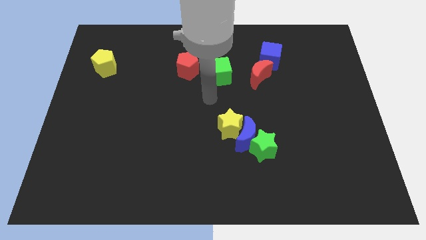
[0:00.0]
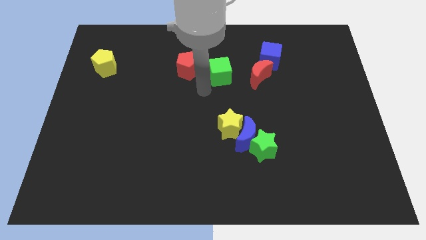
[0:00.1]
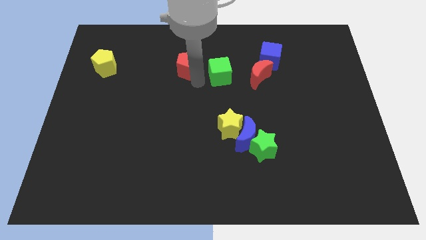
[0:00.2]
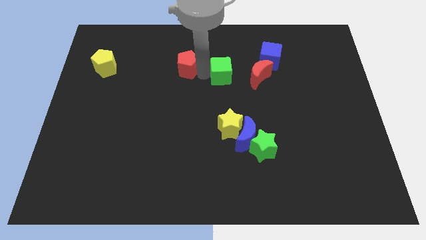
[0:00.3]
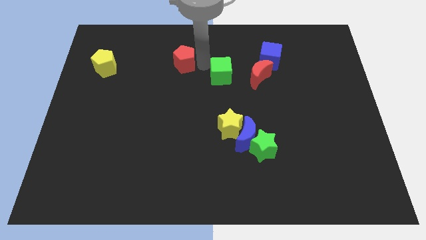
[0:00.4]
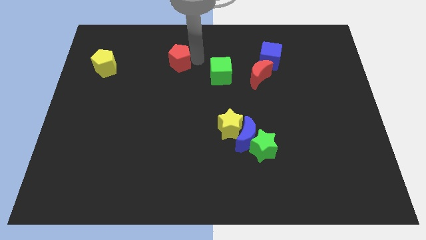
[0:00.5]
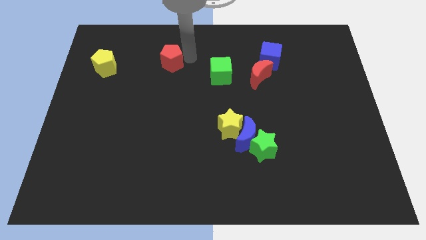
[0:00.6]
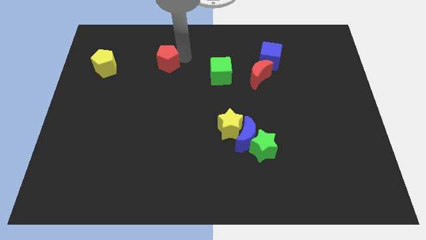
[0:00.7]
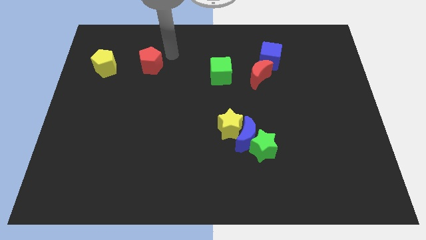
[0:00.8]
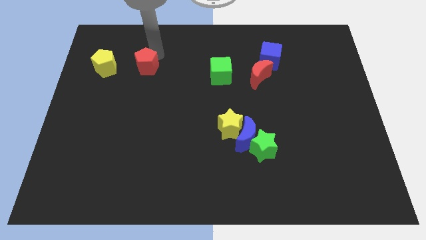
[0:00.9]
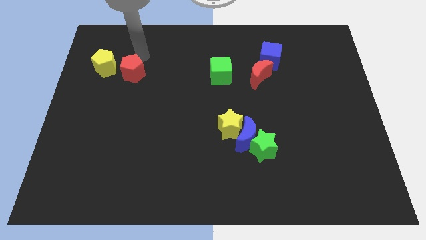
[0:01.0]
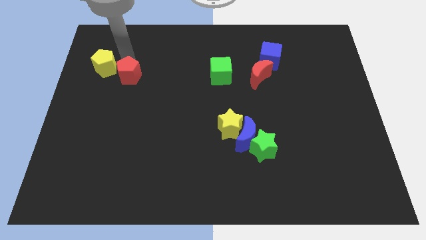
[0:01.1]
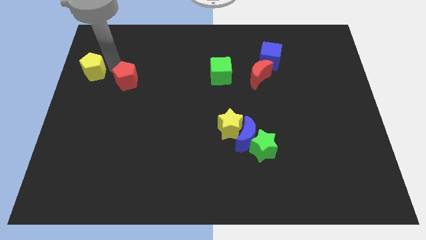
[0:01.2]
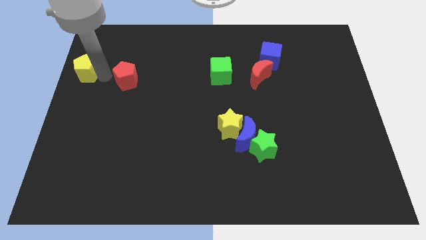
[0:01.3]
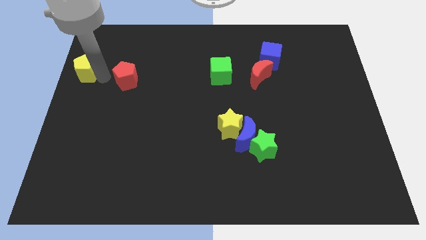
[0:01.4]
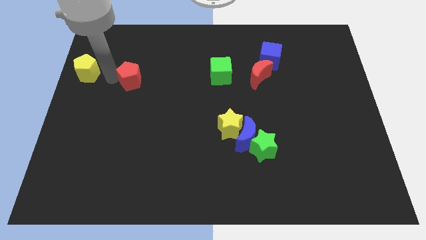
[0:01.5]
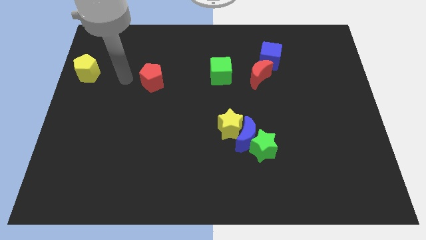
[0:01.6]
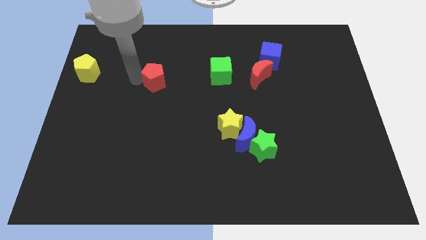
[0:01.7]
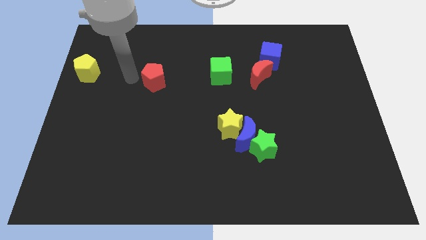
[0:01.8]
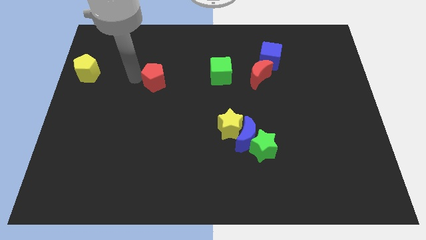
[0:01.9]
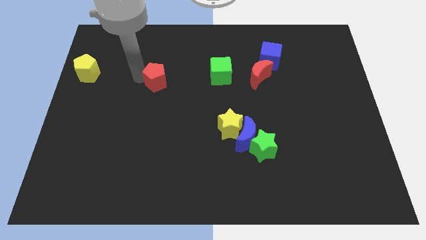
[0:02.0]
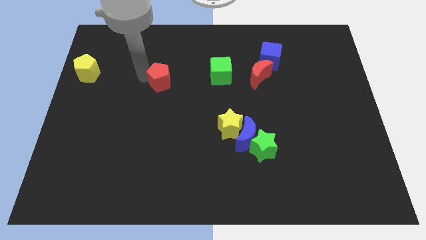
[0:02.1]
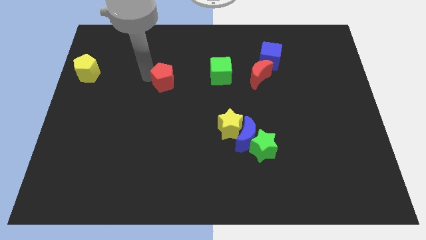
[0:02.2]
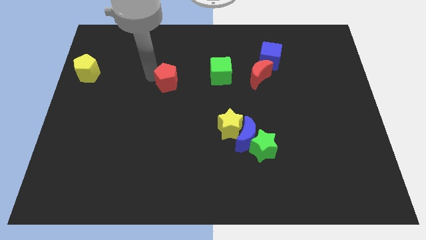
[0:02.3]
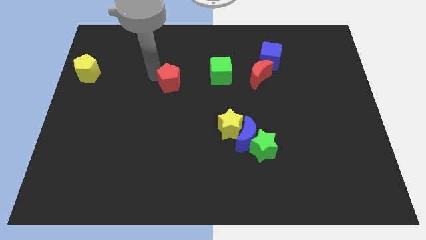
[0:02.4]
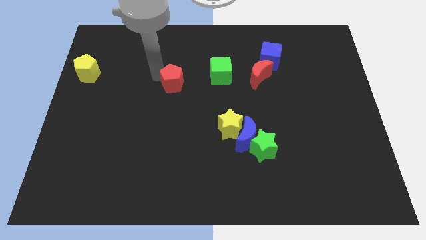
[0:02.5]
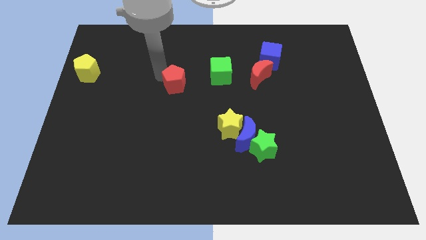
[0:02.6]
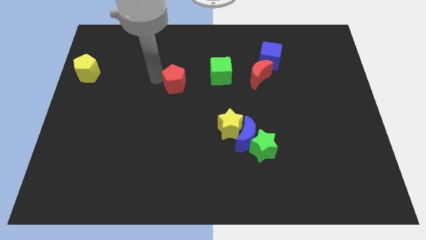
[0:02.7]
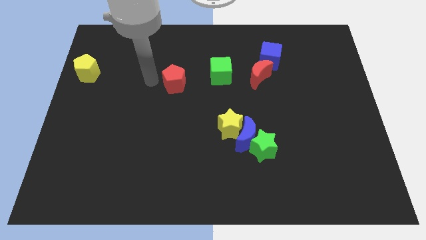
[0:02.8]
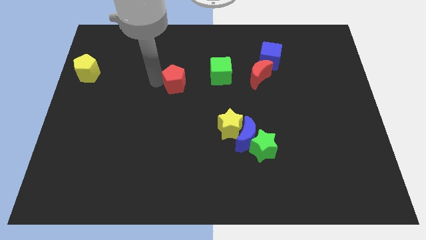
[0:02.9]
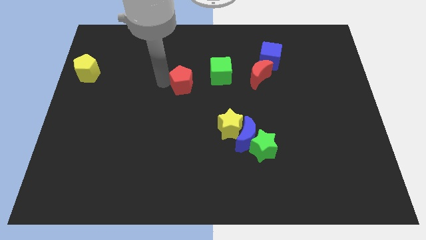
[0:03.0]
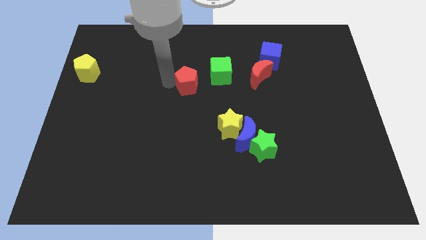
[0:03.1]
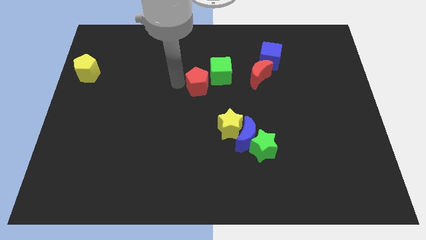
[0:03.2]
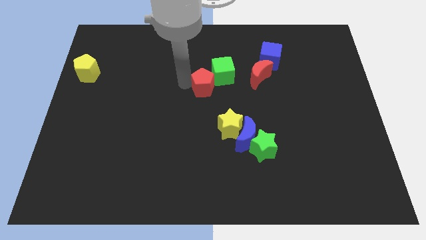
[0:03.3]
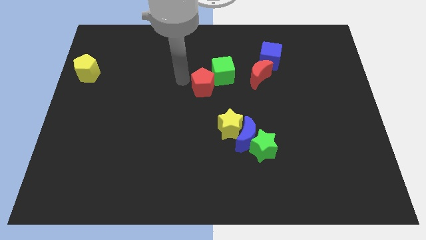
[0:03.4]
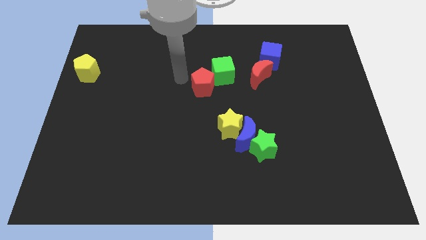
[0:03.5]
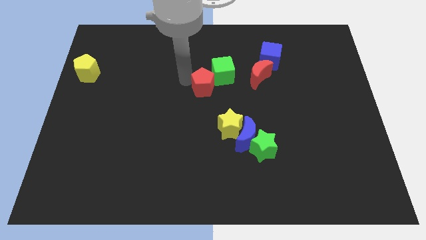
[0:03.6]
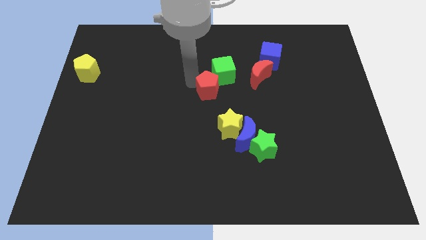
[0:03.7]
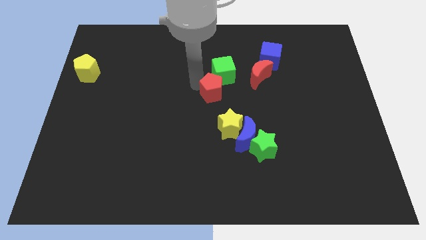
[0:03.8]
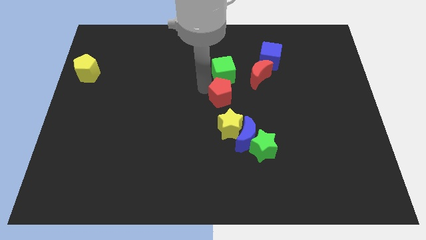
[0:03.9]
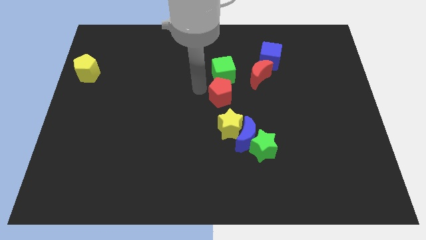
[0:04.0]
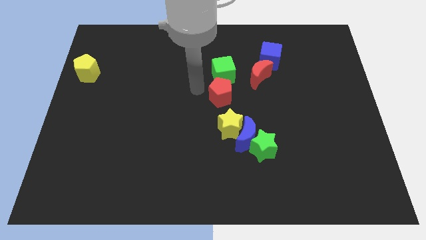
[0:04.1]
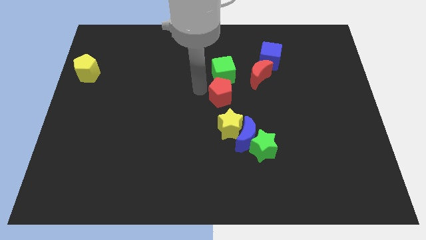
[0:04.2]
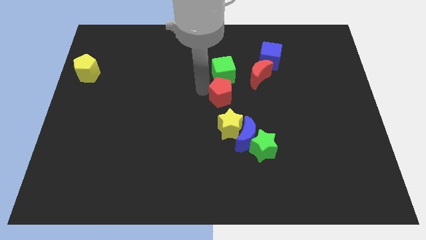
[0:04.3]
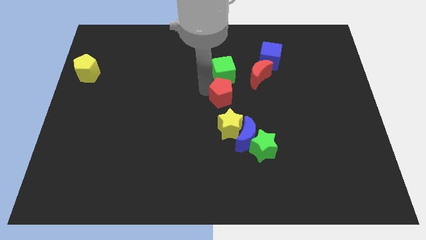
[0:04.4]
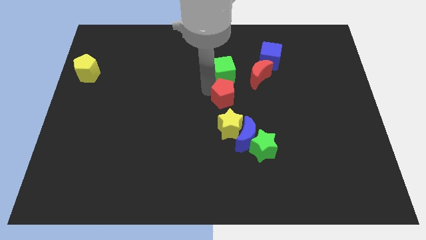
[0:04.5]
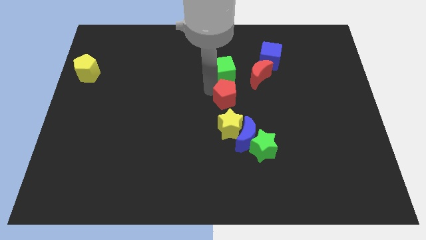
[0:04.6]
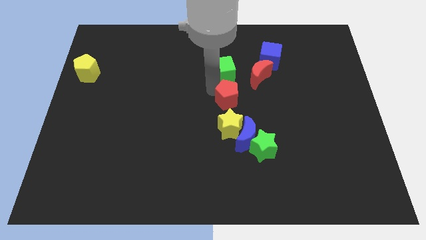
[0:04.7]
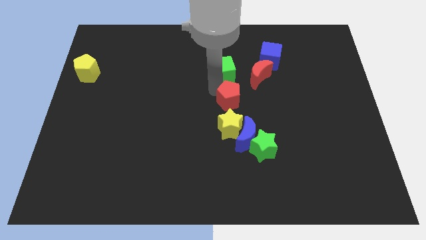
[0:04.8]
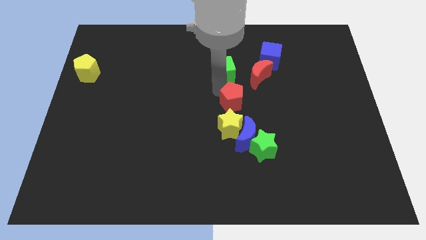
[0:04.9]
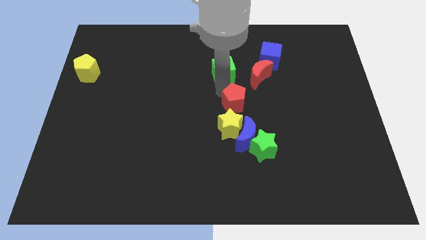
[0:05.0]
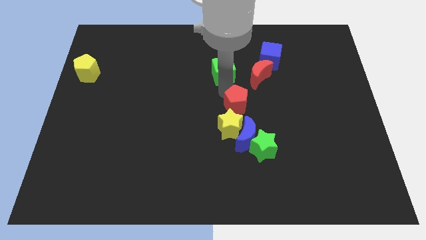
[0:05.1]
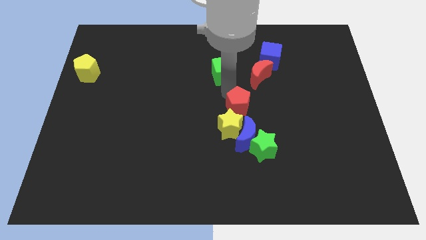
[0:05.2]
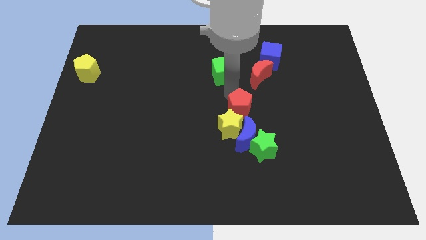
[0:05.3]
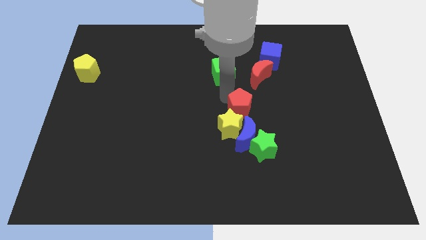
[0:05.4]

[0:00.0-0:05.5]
push the red pentagon to the bottom of the red moon

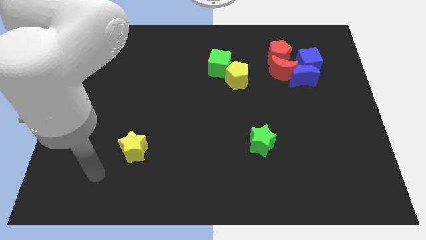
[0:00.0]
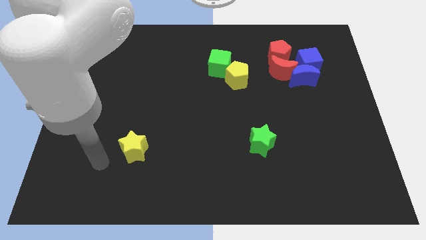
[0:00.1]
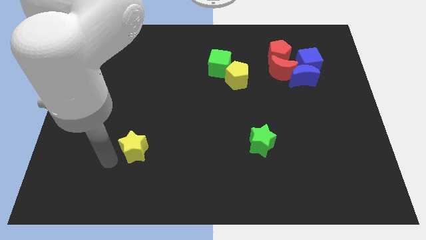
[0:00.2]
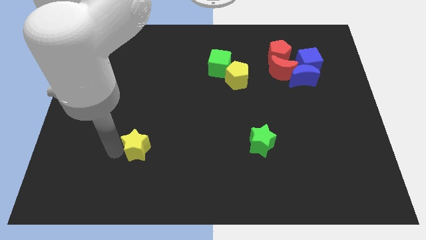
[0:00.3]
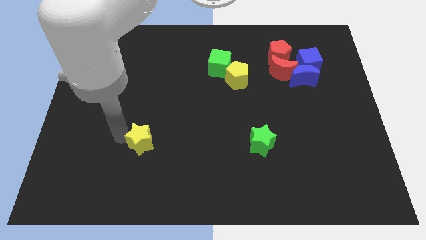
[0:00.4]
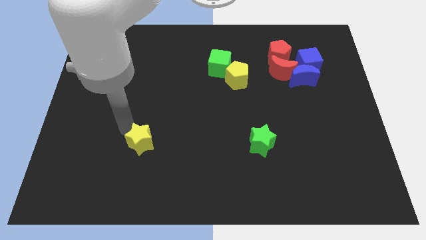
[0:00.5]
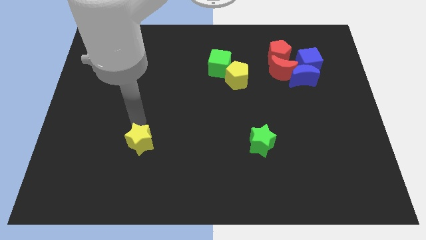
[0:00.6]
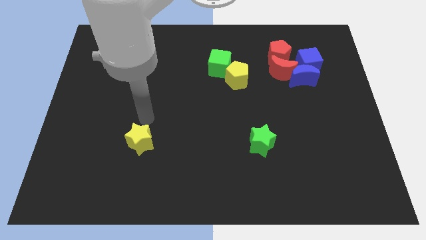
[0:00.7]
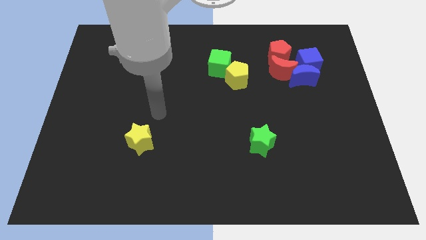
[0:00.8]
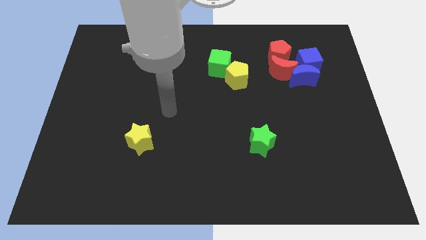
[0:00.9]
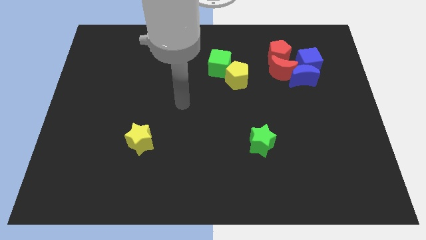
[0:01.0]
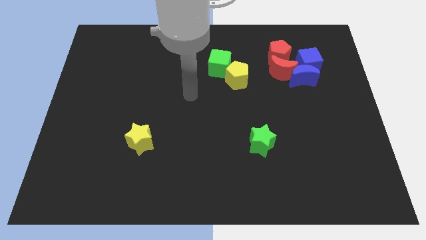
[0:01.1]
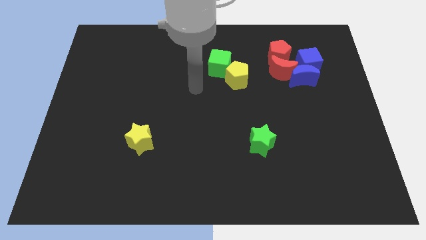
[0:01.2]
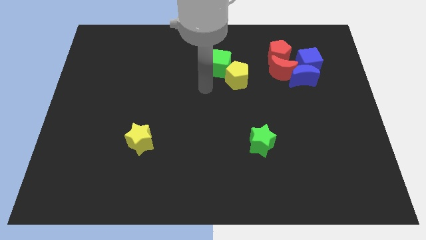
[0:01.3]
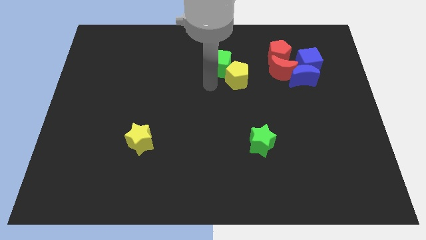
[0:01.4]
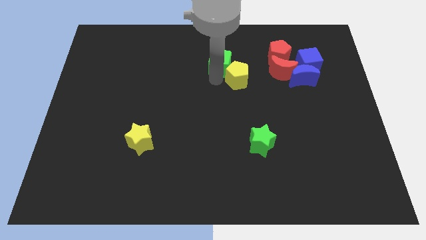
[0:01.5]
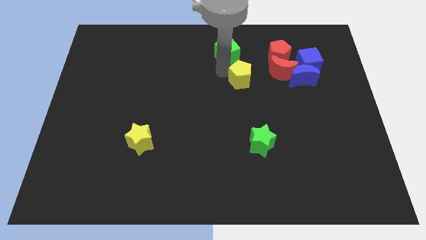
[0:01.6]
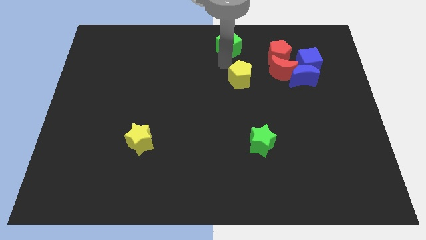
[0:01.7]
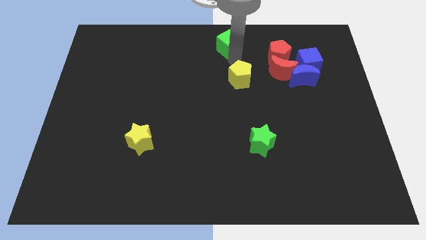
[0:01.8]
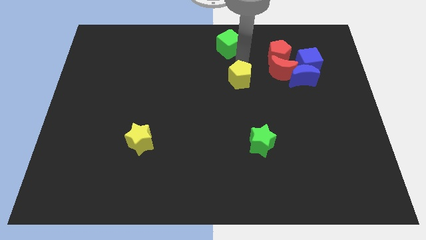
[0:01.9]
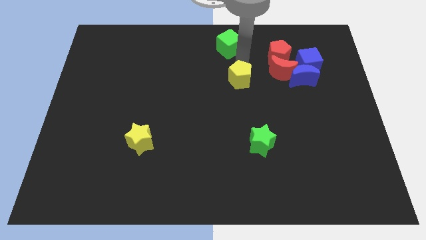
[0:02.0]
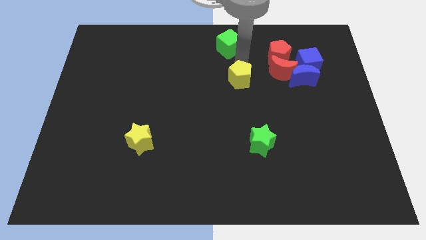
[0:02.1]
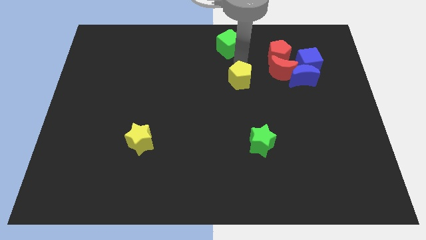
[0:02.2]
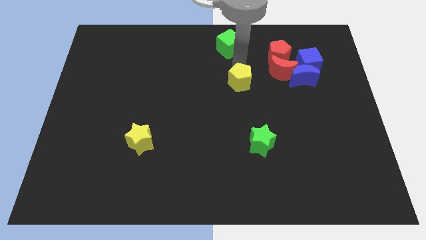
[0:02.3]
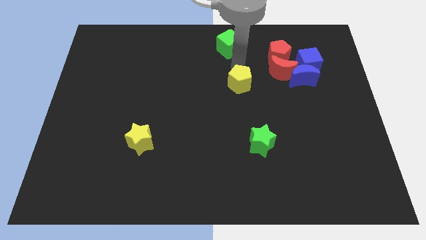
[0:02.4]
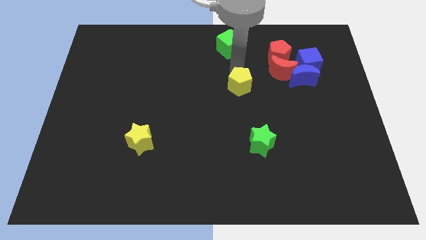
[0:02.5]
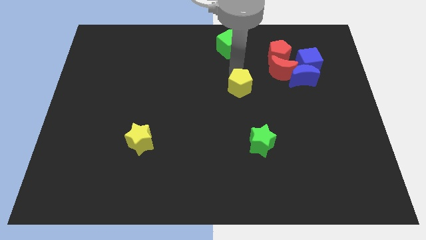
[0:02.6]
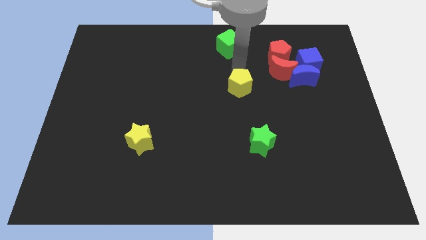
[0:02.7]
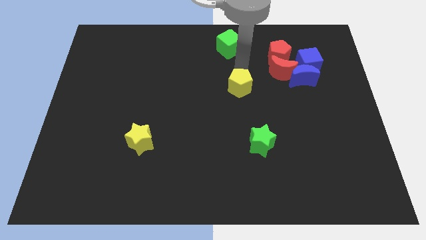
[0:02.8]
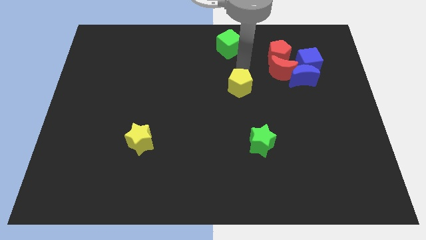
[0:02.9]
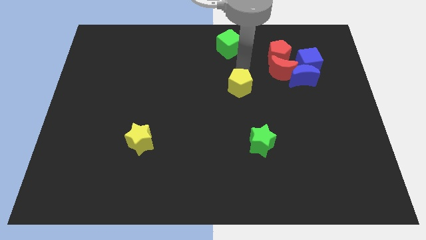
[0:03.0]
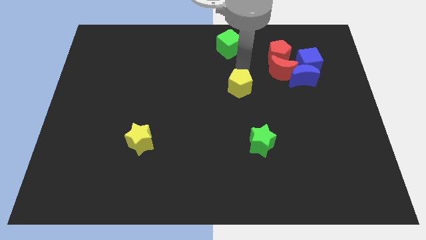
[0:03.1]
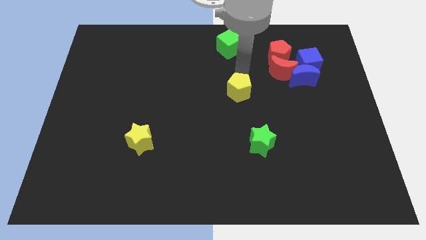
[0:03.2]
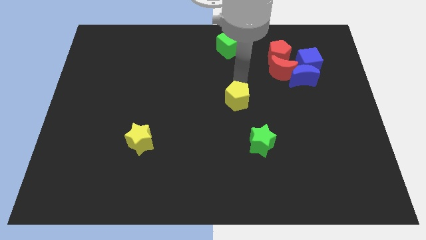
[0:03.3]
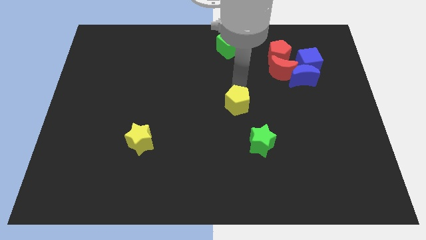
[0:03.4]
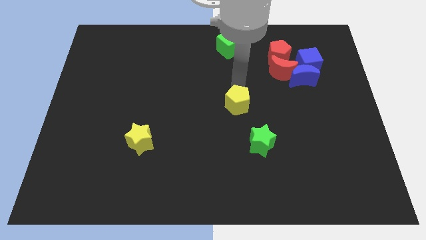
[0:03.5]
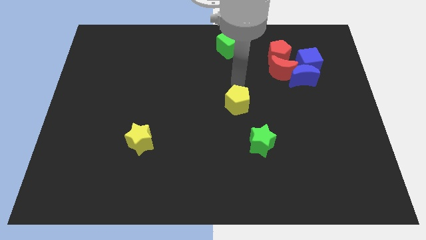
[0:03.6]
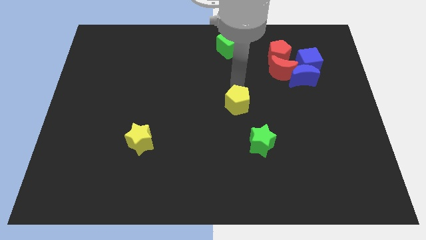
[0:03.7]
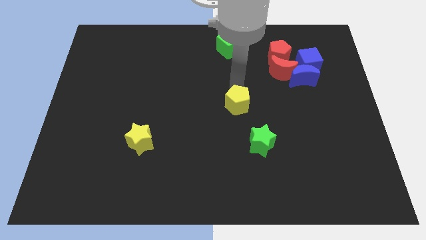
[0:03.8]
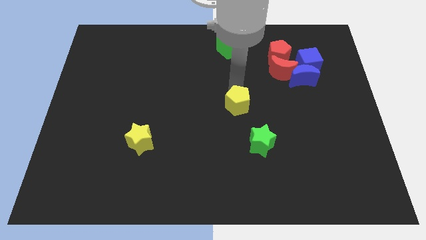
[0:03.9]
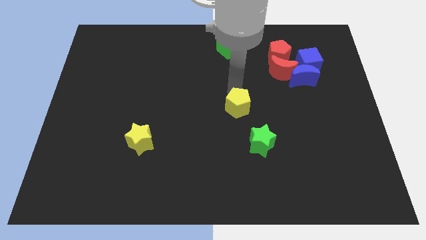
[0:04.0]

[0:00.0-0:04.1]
slide the yellow pentagon diagonally up and to the left of the green star
